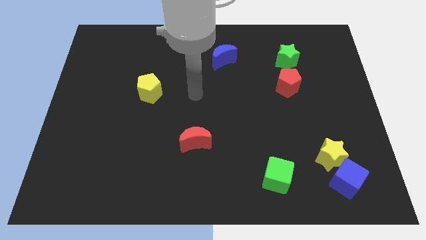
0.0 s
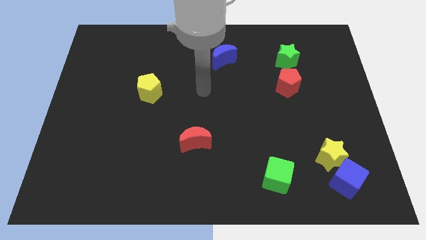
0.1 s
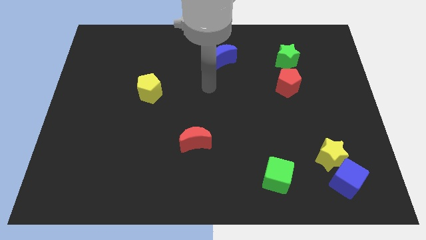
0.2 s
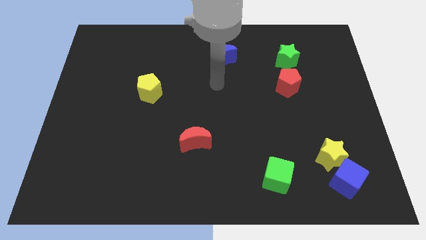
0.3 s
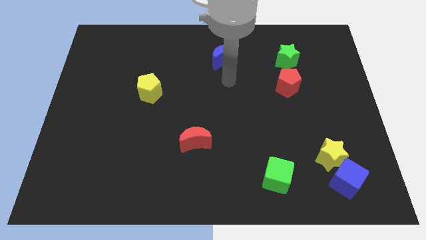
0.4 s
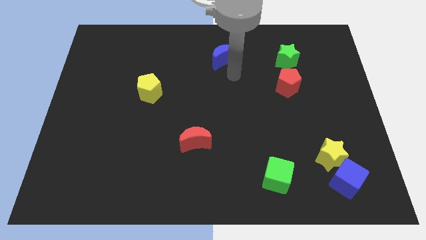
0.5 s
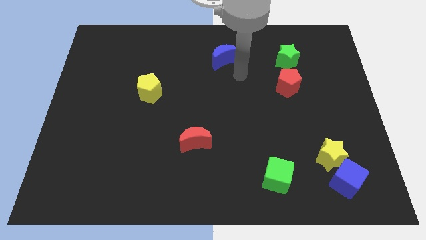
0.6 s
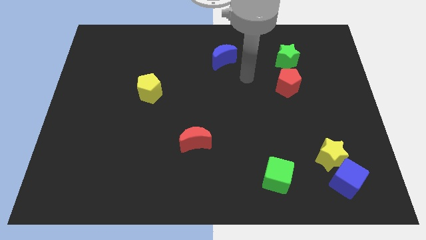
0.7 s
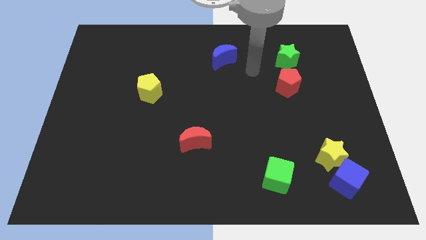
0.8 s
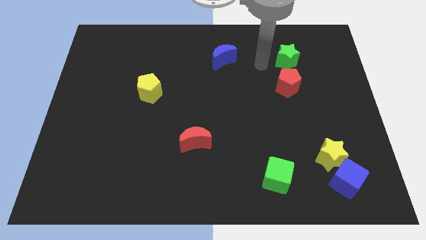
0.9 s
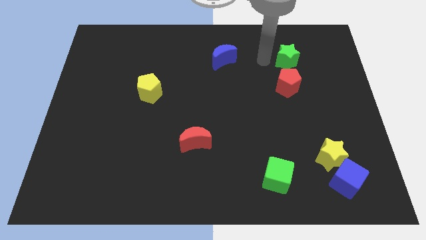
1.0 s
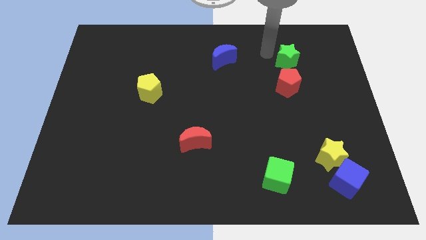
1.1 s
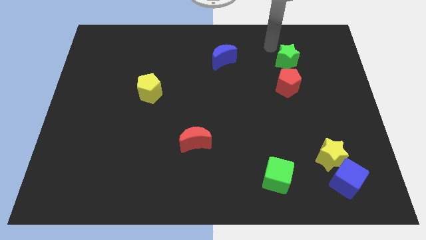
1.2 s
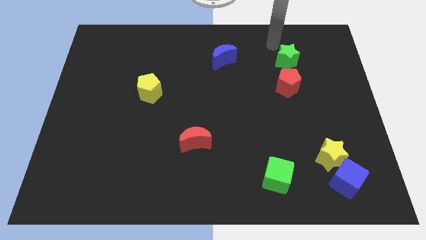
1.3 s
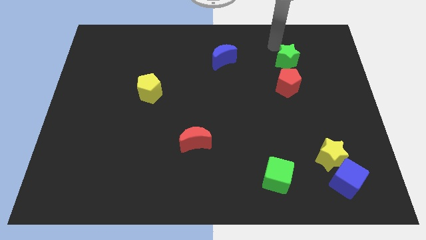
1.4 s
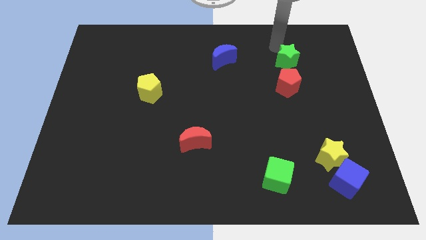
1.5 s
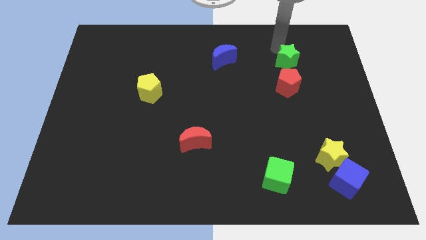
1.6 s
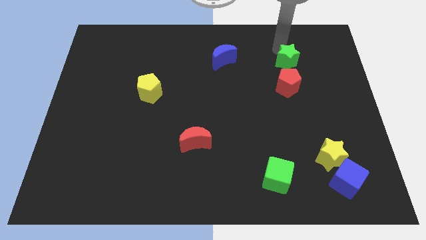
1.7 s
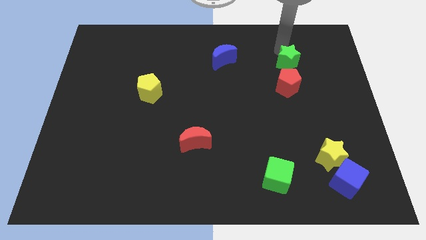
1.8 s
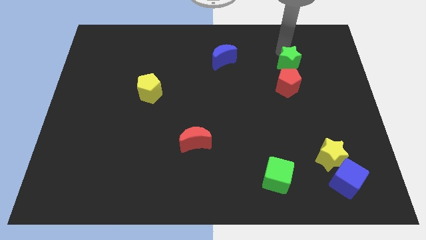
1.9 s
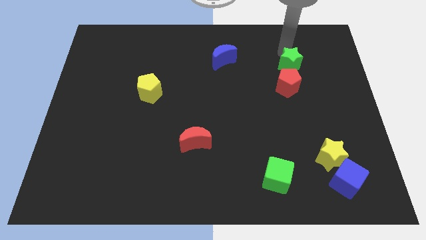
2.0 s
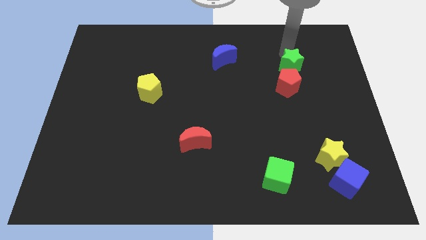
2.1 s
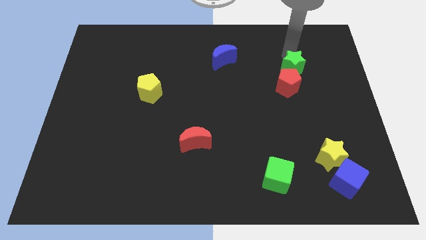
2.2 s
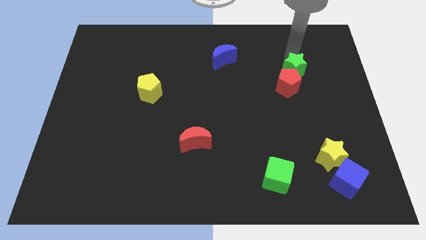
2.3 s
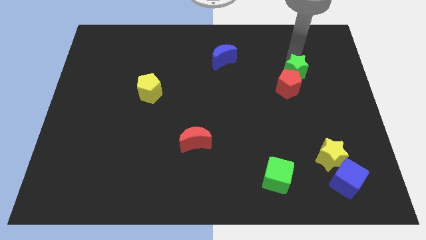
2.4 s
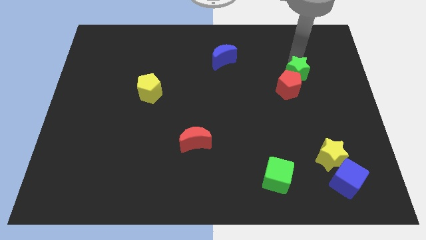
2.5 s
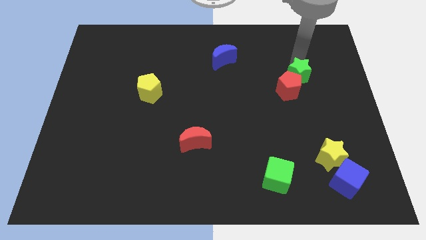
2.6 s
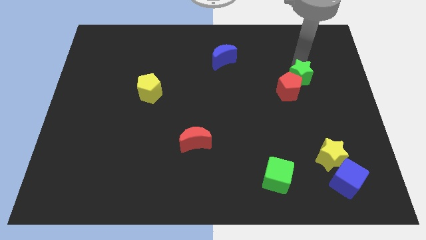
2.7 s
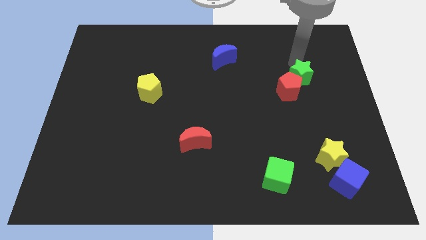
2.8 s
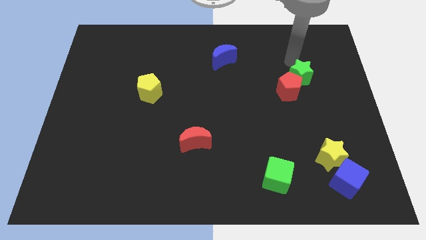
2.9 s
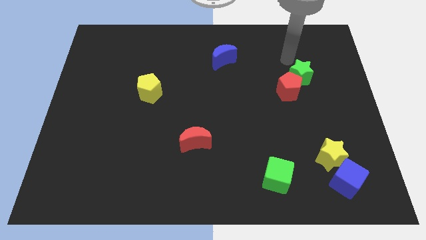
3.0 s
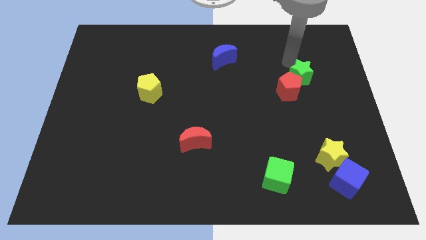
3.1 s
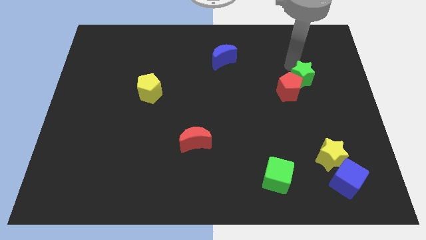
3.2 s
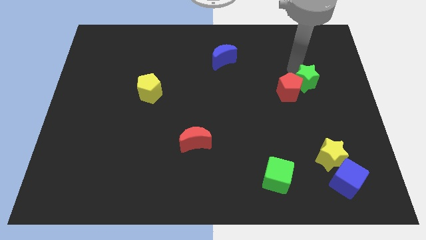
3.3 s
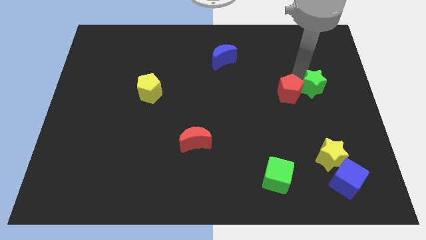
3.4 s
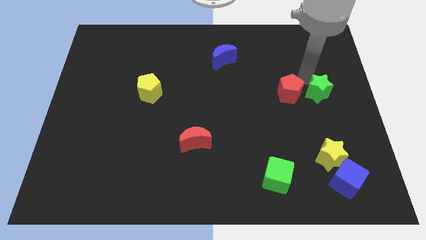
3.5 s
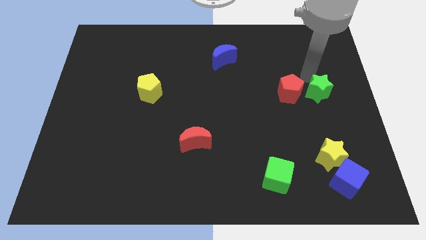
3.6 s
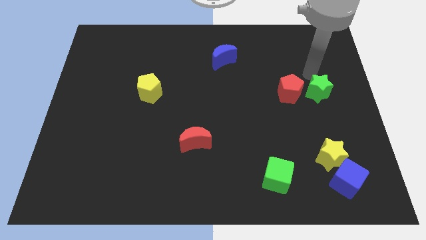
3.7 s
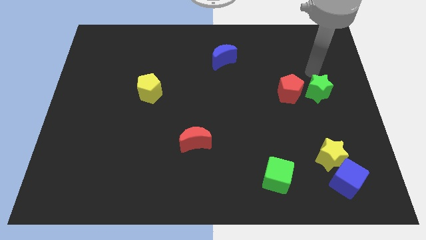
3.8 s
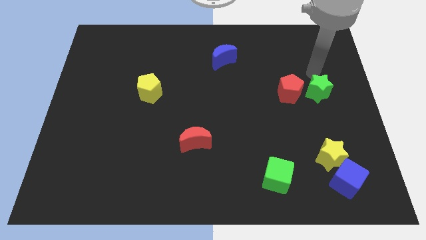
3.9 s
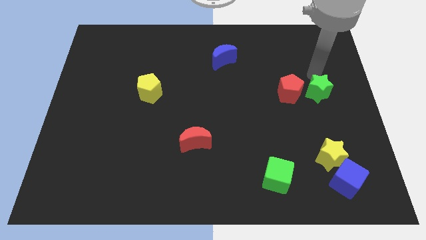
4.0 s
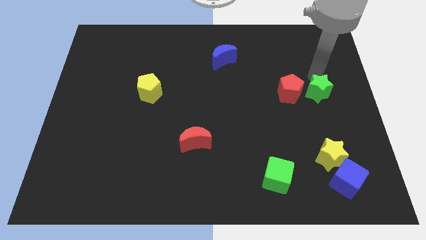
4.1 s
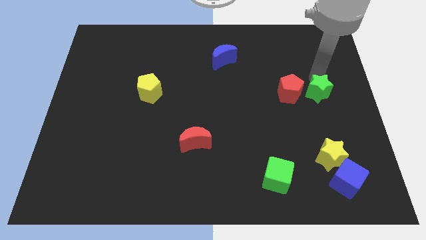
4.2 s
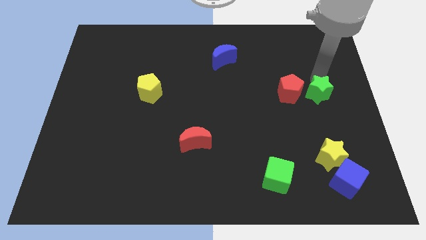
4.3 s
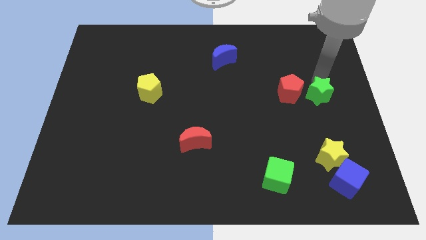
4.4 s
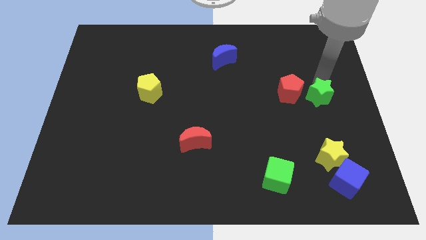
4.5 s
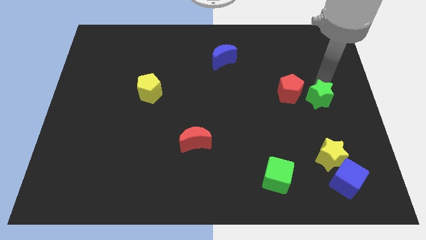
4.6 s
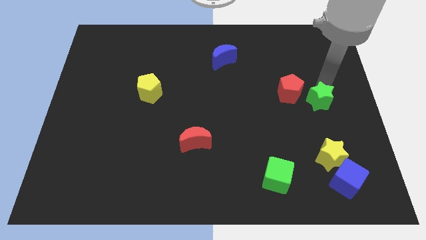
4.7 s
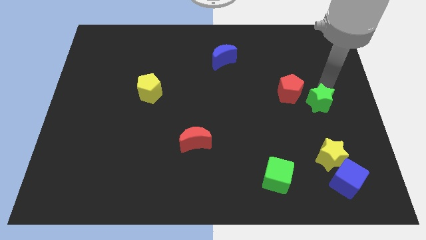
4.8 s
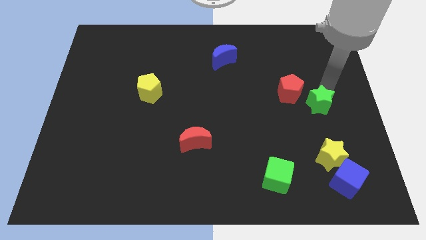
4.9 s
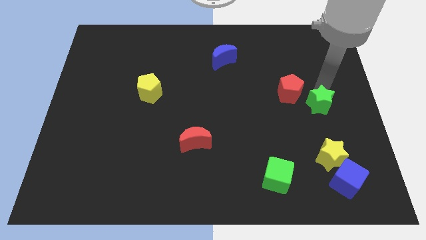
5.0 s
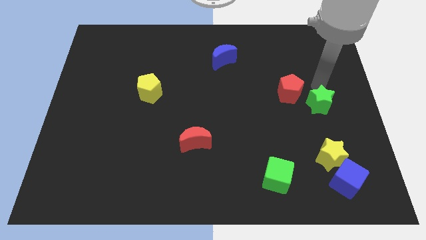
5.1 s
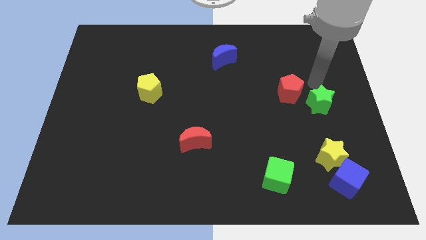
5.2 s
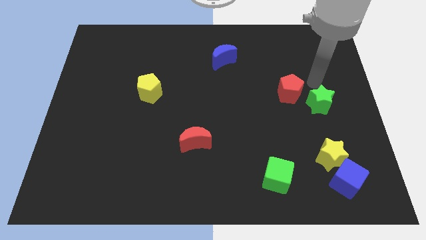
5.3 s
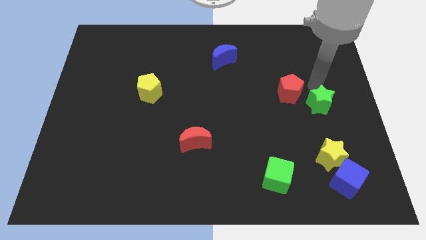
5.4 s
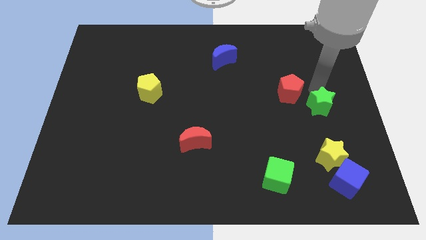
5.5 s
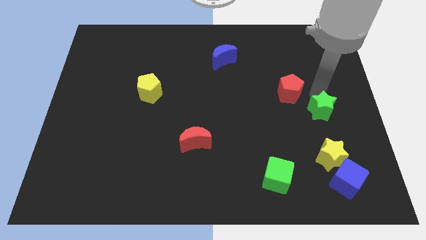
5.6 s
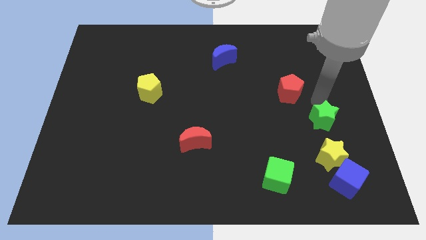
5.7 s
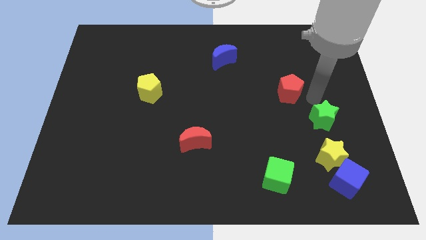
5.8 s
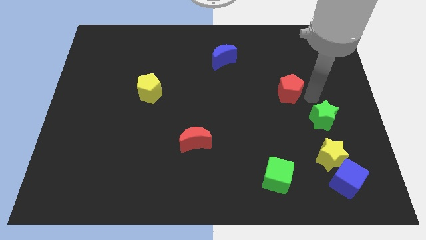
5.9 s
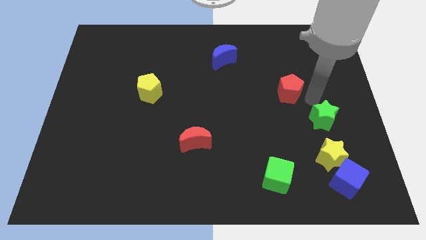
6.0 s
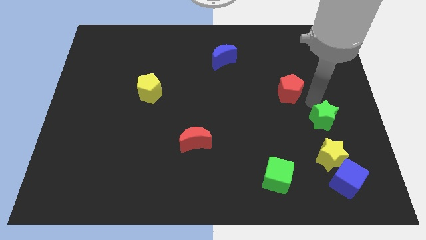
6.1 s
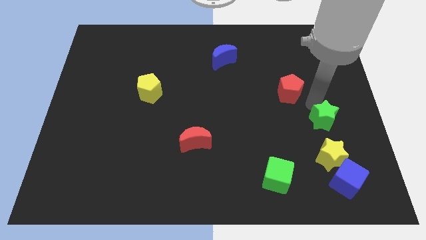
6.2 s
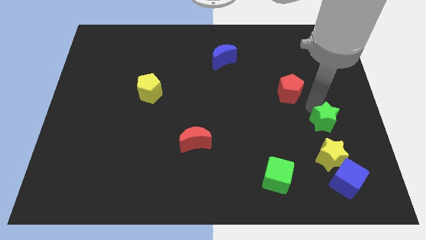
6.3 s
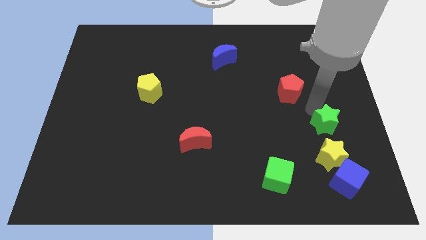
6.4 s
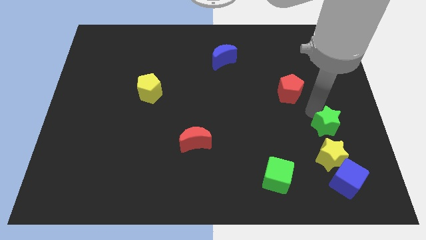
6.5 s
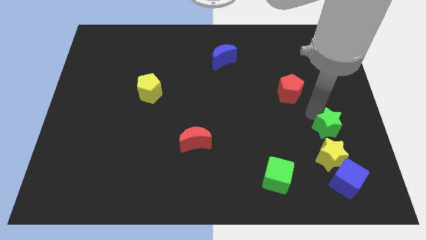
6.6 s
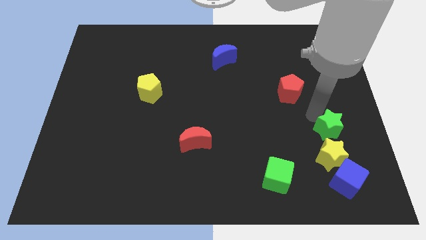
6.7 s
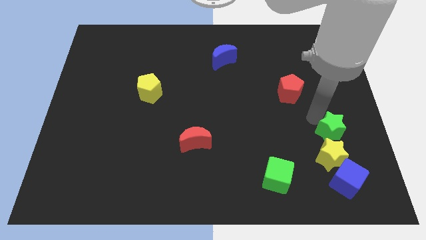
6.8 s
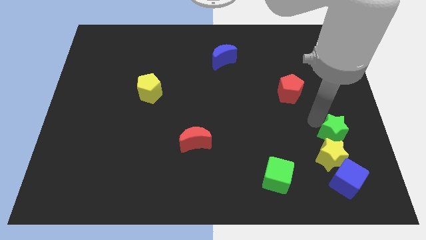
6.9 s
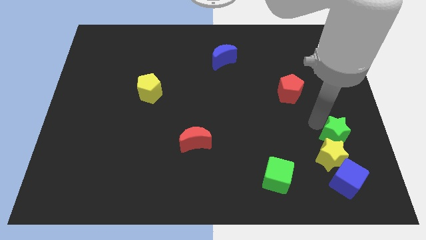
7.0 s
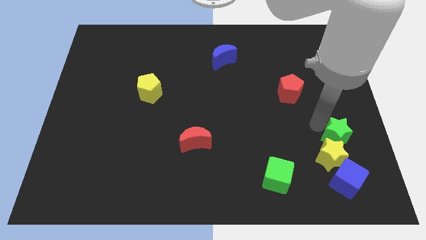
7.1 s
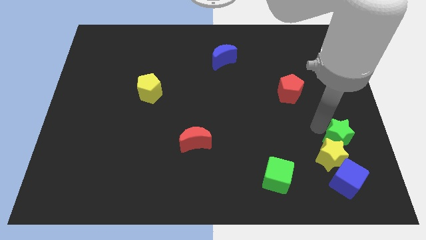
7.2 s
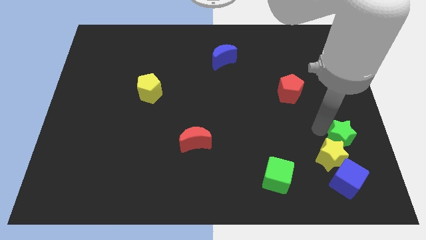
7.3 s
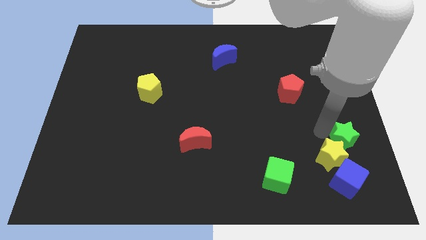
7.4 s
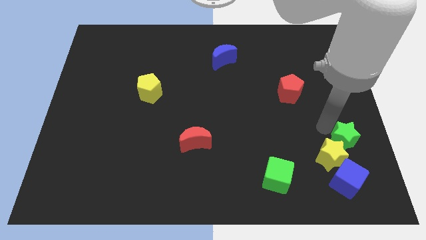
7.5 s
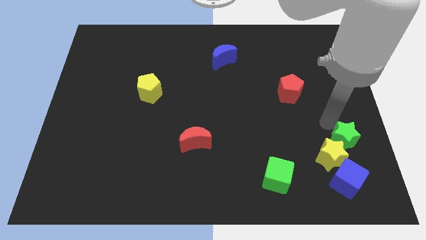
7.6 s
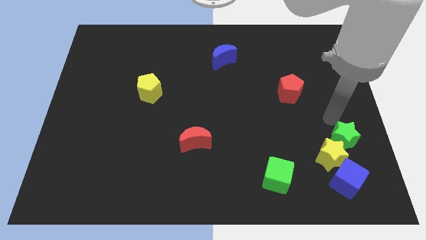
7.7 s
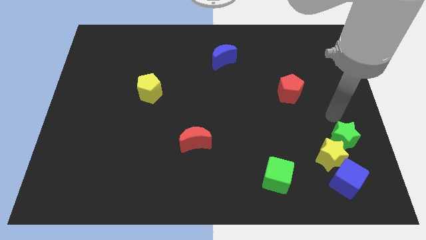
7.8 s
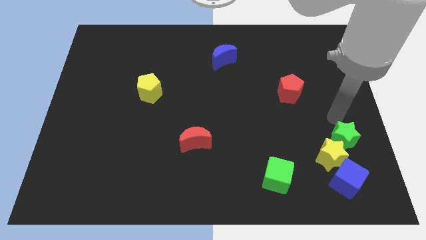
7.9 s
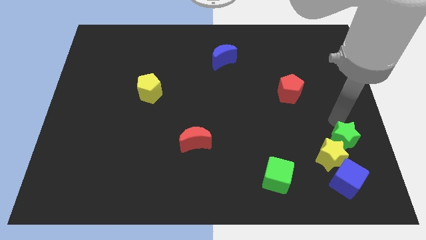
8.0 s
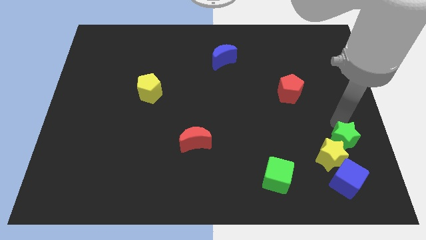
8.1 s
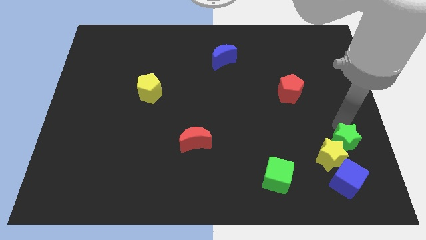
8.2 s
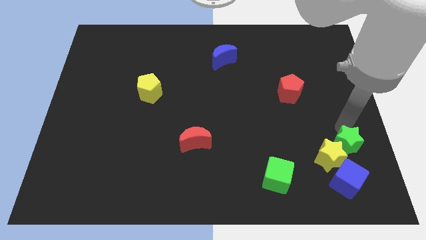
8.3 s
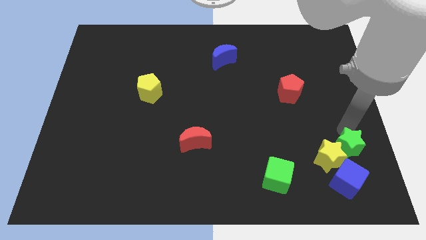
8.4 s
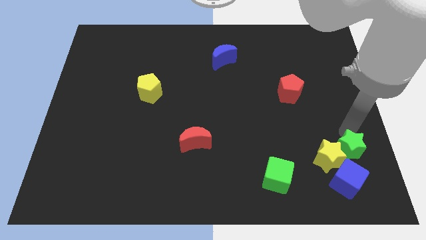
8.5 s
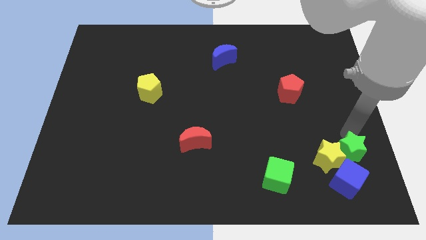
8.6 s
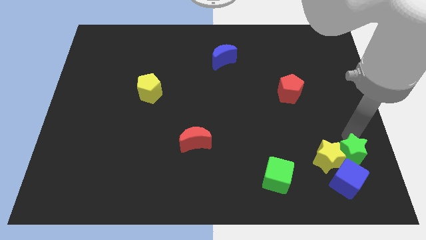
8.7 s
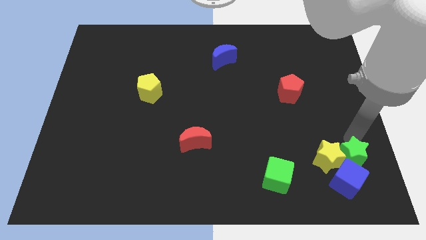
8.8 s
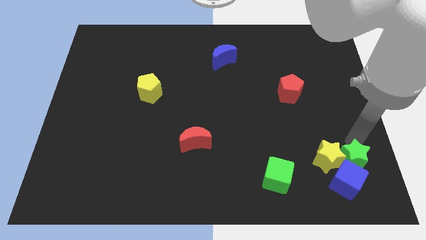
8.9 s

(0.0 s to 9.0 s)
put the green star towards the blue cube
